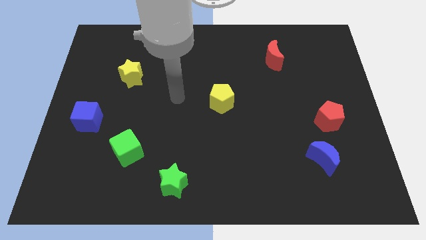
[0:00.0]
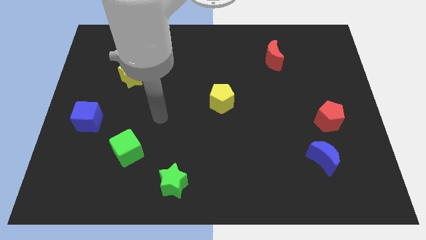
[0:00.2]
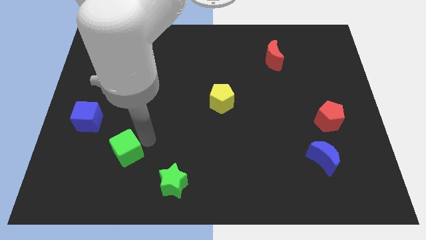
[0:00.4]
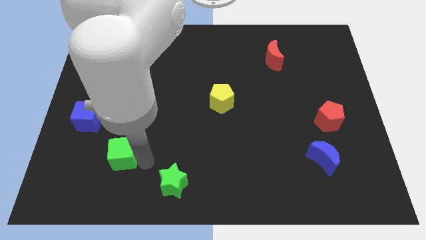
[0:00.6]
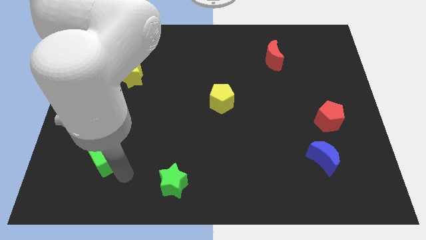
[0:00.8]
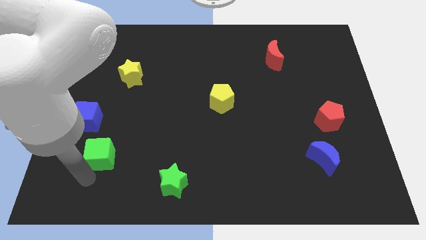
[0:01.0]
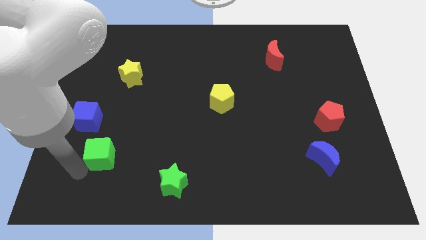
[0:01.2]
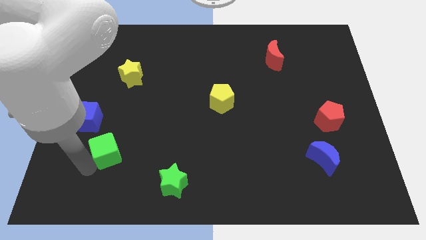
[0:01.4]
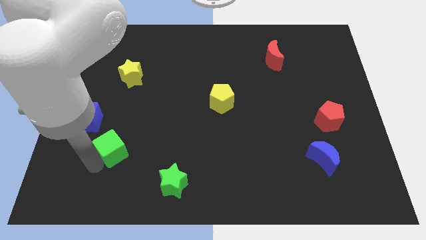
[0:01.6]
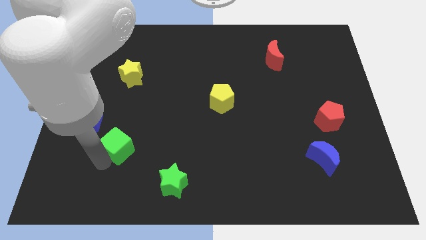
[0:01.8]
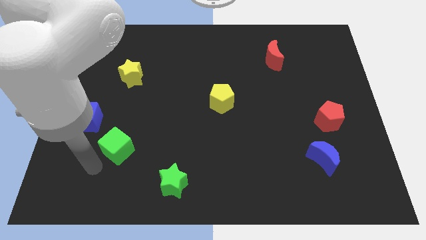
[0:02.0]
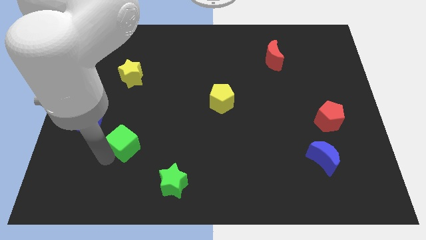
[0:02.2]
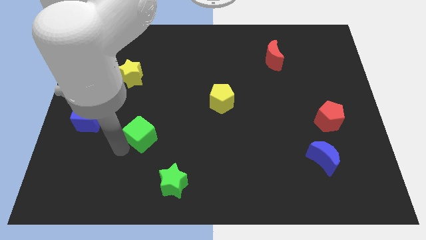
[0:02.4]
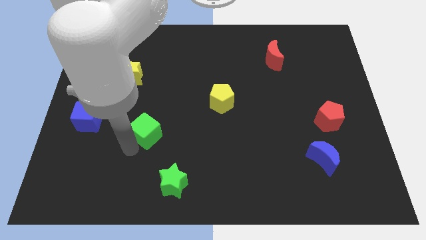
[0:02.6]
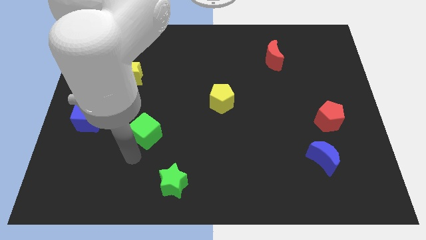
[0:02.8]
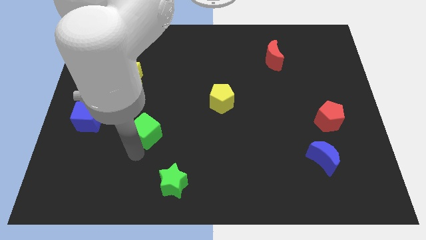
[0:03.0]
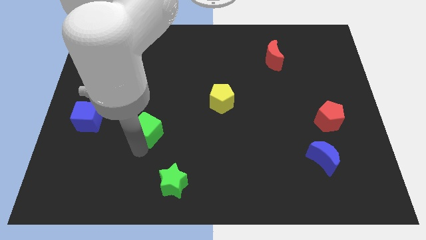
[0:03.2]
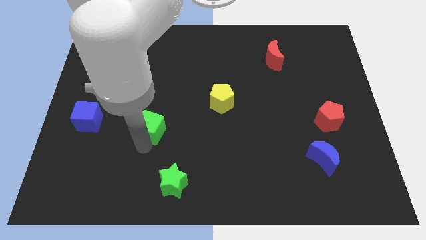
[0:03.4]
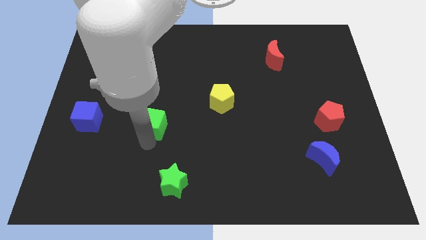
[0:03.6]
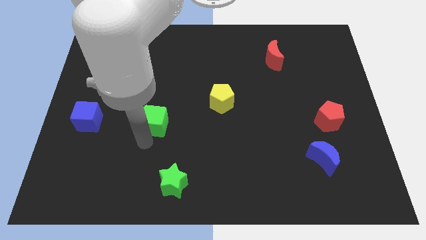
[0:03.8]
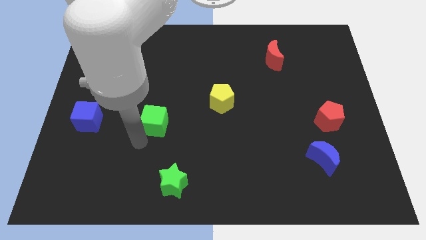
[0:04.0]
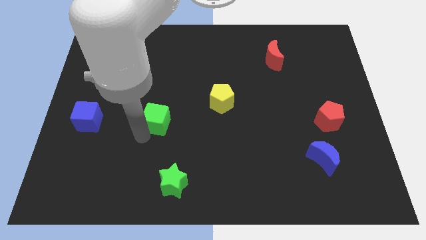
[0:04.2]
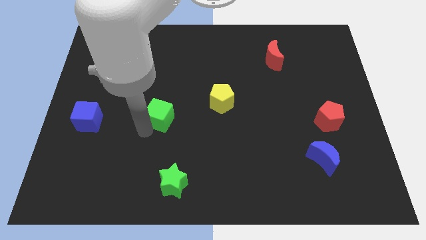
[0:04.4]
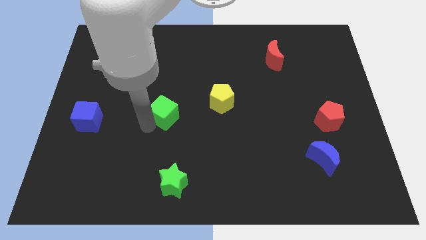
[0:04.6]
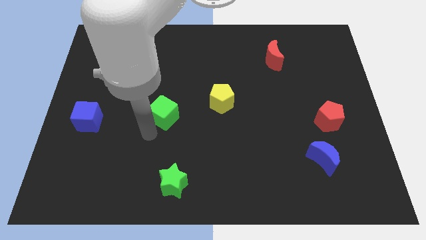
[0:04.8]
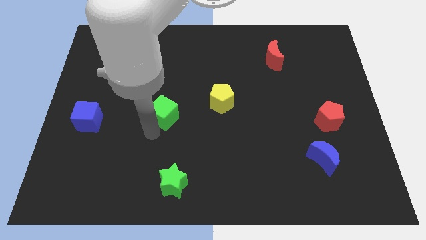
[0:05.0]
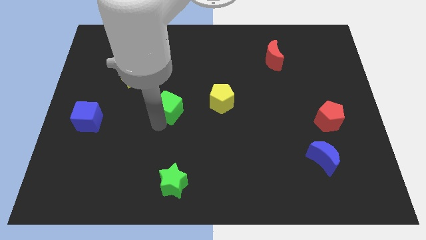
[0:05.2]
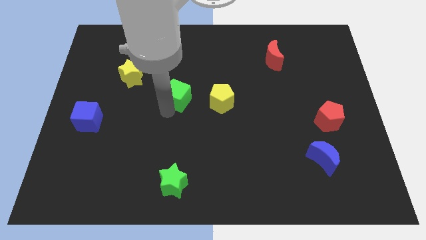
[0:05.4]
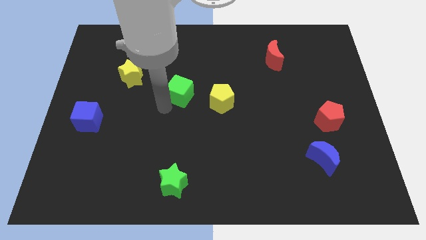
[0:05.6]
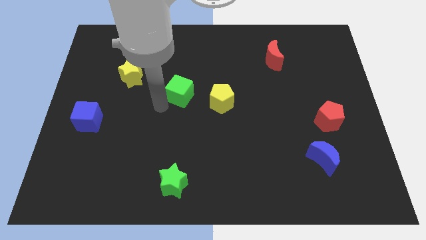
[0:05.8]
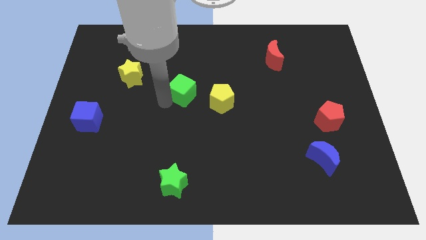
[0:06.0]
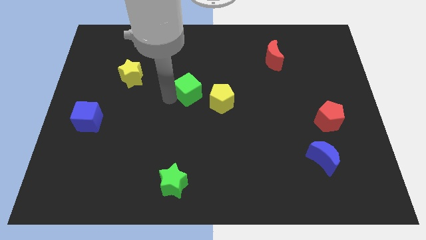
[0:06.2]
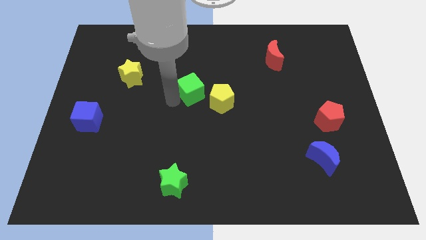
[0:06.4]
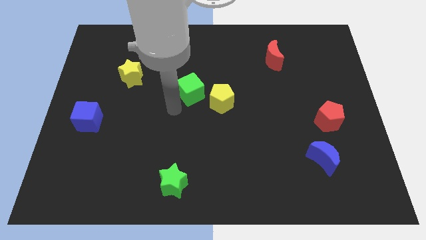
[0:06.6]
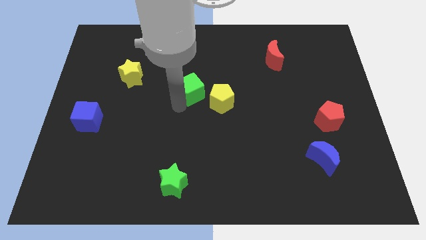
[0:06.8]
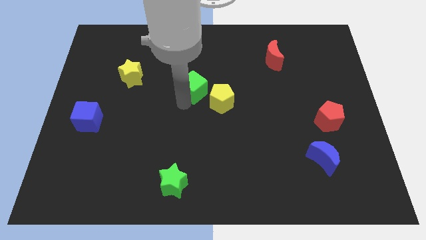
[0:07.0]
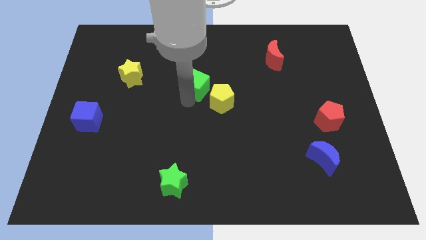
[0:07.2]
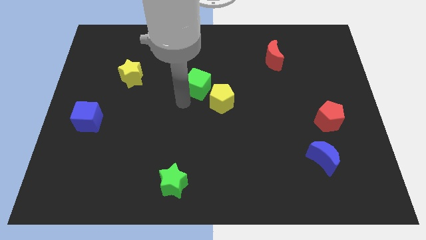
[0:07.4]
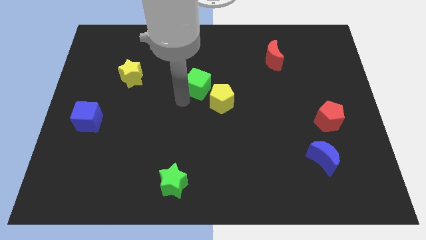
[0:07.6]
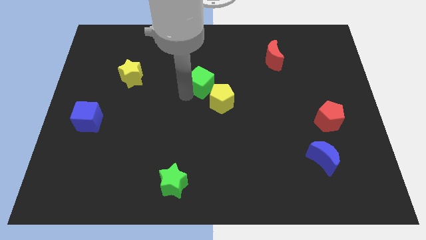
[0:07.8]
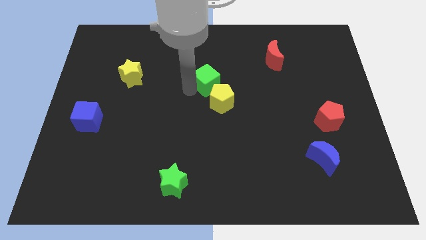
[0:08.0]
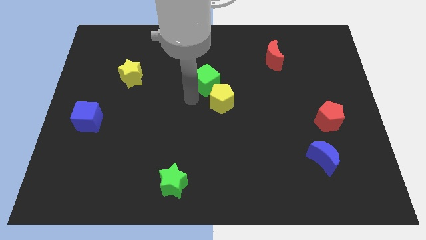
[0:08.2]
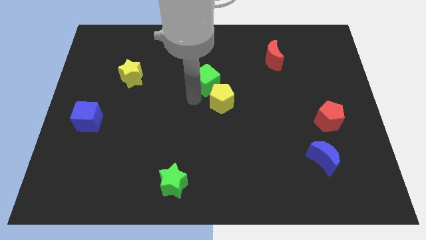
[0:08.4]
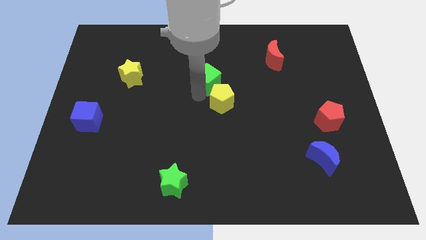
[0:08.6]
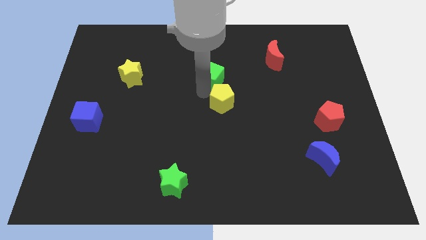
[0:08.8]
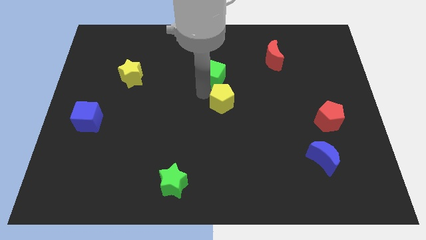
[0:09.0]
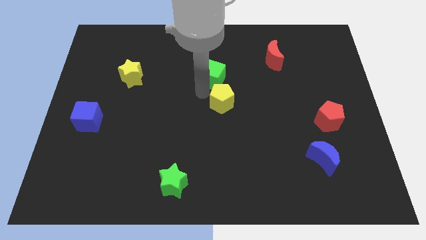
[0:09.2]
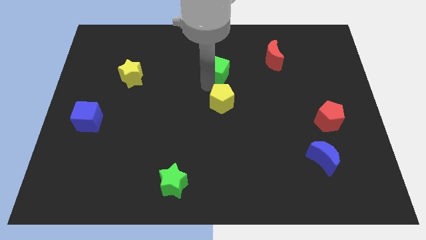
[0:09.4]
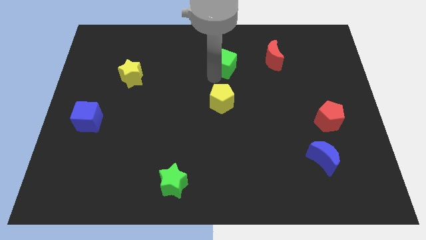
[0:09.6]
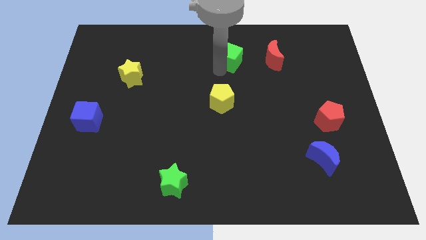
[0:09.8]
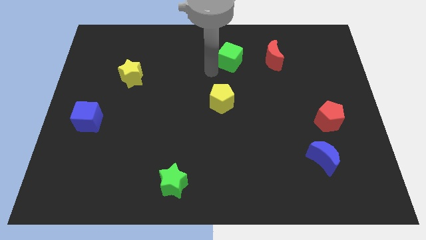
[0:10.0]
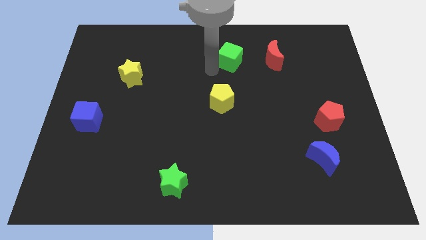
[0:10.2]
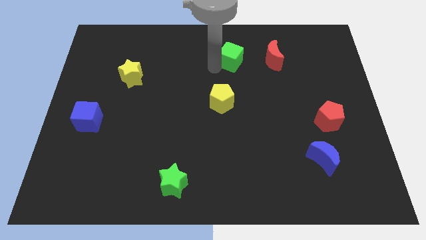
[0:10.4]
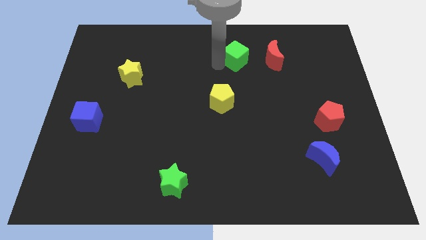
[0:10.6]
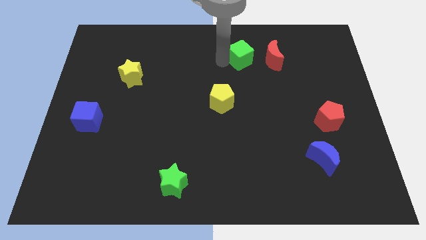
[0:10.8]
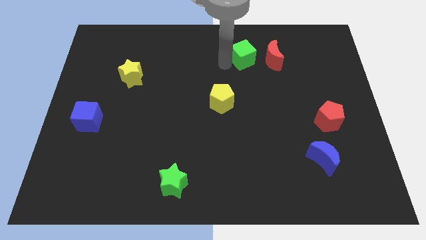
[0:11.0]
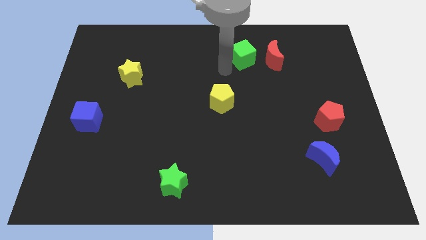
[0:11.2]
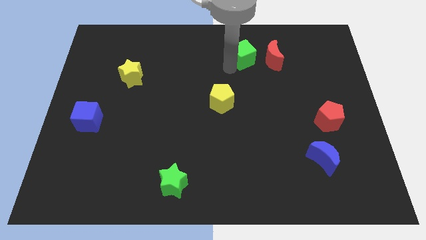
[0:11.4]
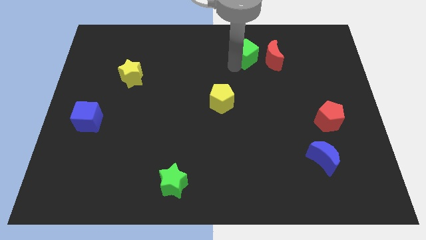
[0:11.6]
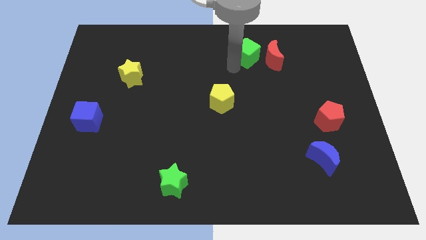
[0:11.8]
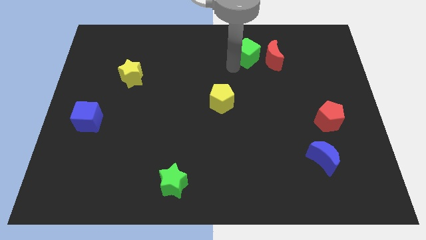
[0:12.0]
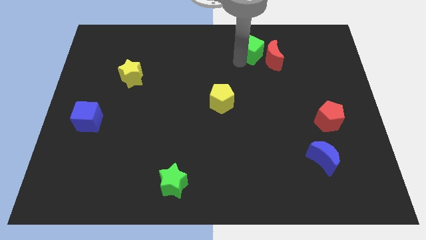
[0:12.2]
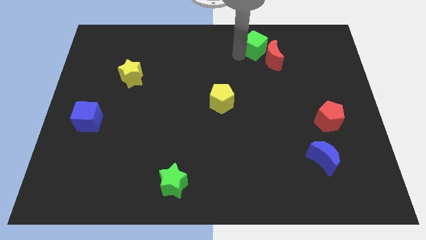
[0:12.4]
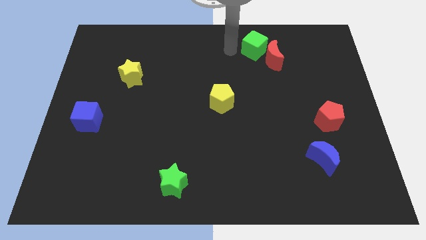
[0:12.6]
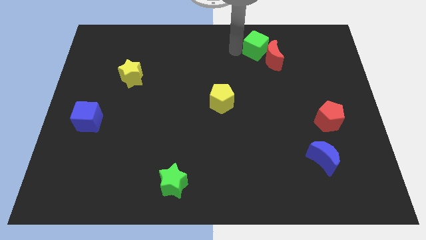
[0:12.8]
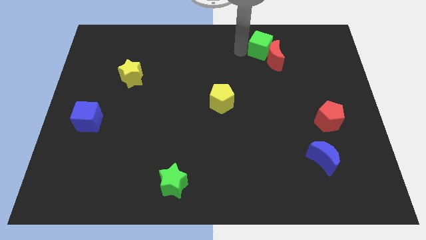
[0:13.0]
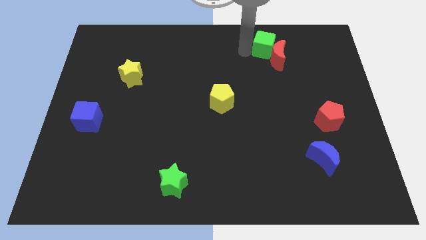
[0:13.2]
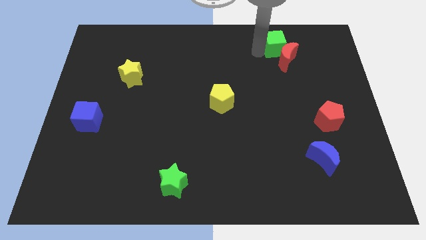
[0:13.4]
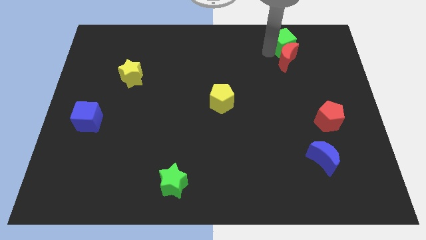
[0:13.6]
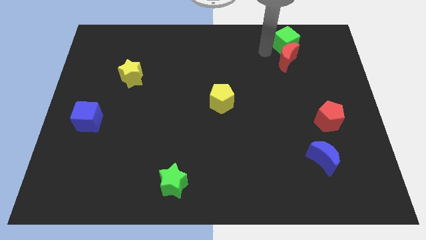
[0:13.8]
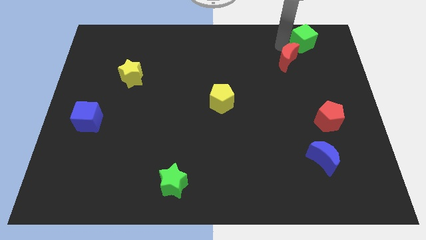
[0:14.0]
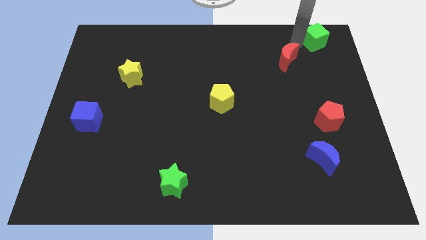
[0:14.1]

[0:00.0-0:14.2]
put the green cube to the upper right corner
